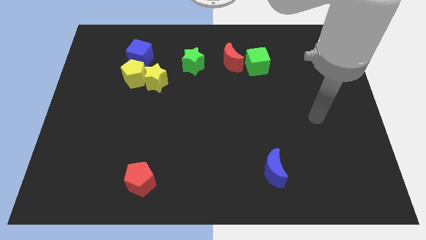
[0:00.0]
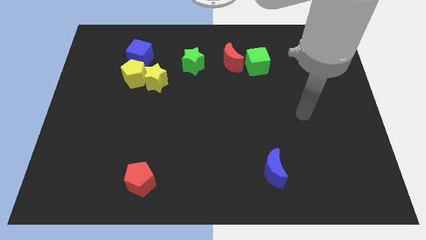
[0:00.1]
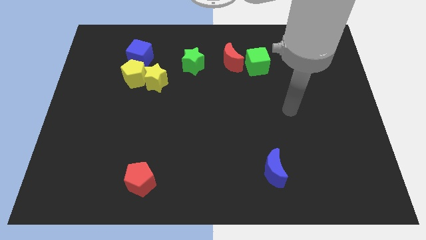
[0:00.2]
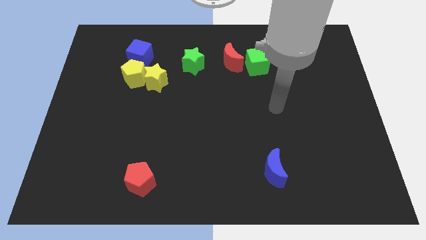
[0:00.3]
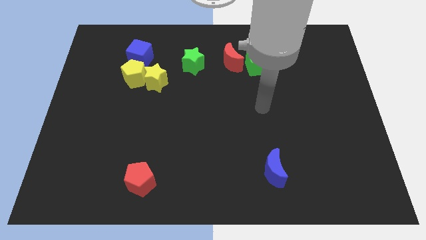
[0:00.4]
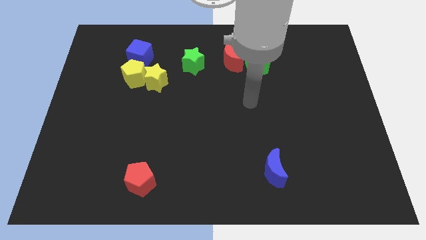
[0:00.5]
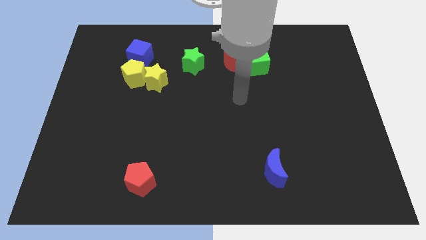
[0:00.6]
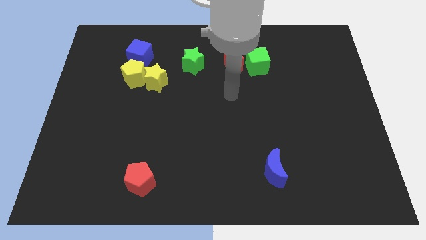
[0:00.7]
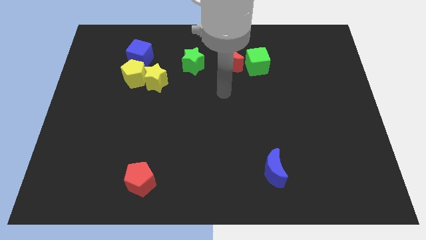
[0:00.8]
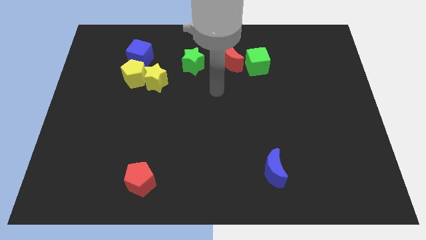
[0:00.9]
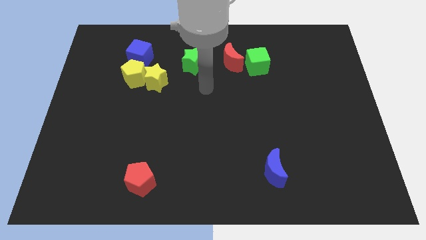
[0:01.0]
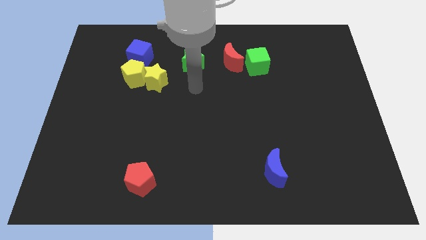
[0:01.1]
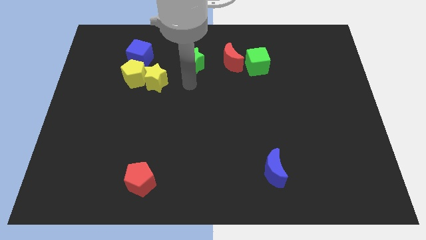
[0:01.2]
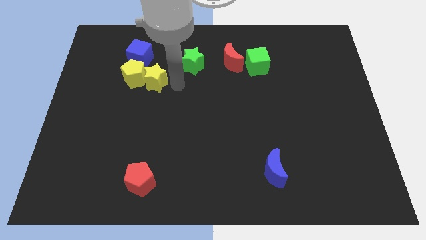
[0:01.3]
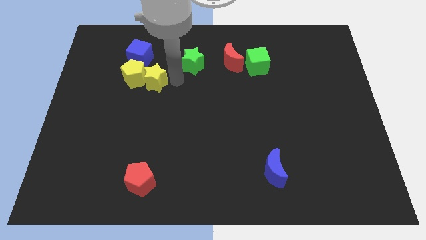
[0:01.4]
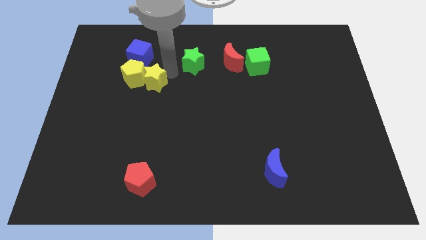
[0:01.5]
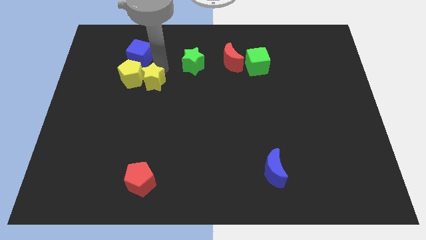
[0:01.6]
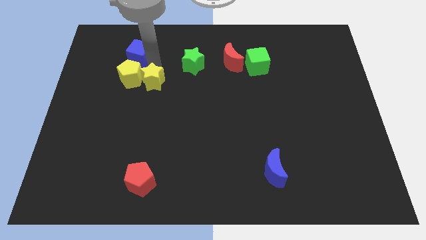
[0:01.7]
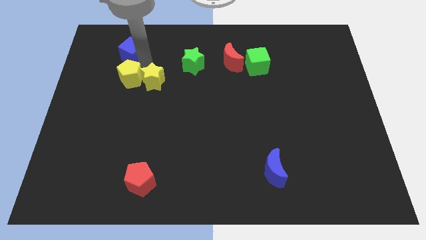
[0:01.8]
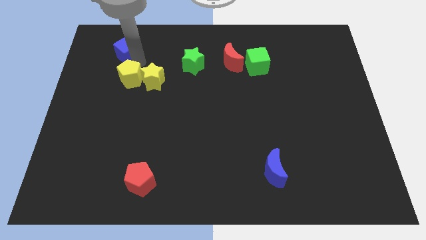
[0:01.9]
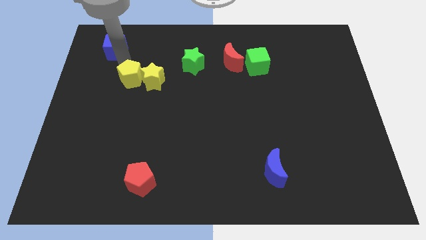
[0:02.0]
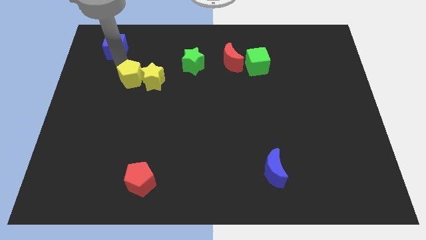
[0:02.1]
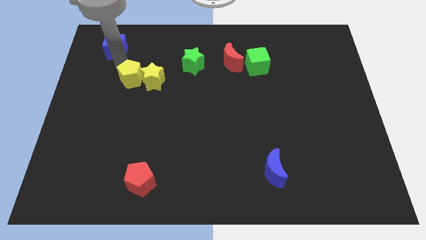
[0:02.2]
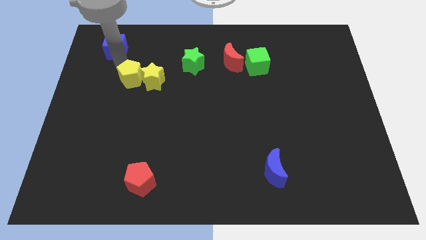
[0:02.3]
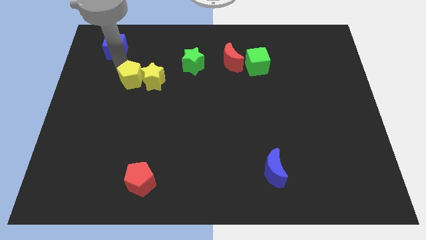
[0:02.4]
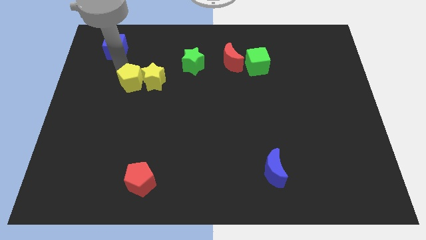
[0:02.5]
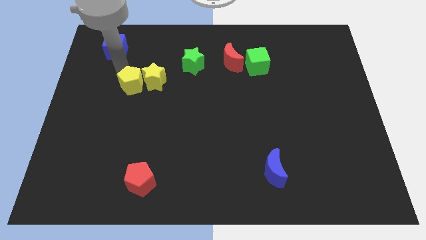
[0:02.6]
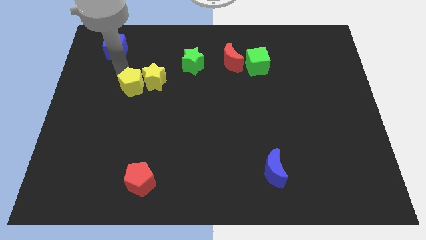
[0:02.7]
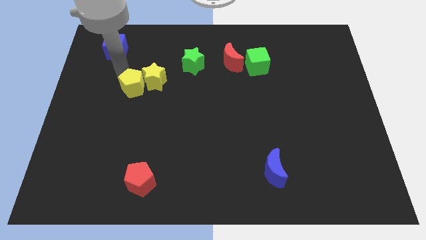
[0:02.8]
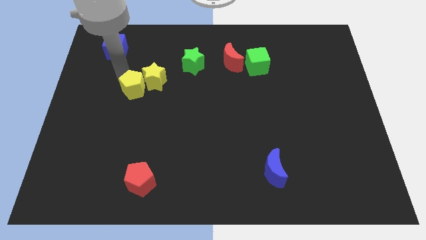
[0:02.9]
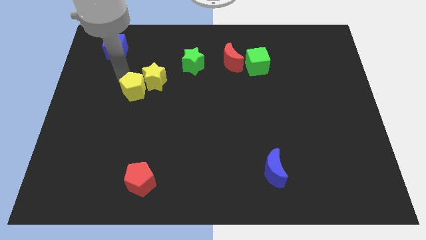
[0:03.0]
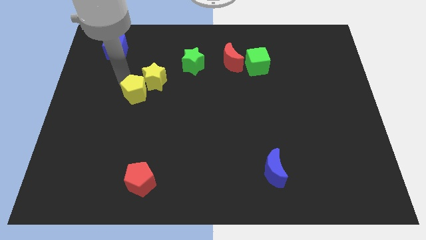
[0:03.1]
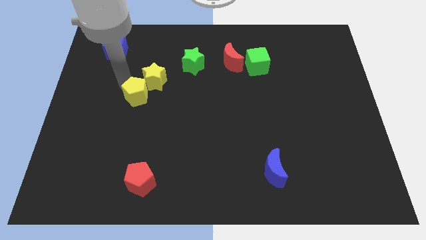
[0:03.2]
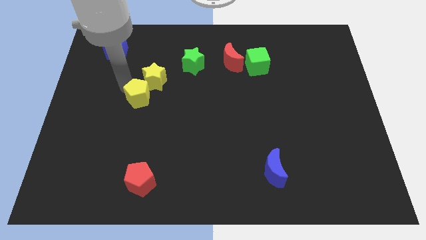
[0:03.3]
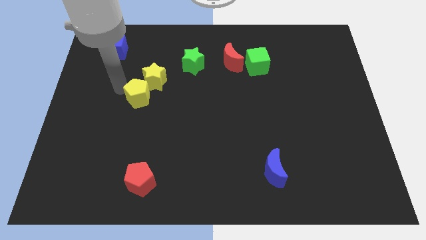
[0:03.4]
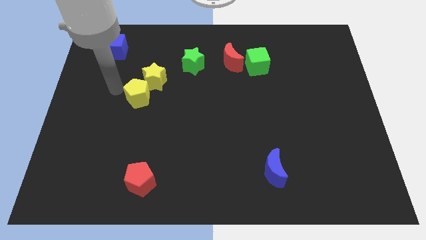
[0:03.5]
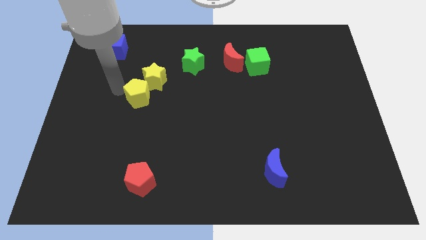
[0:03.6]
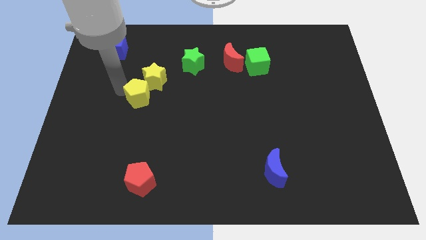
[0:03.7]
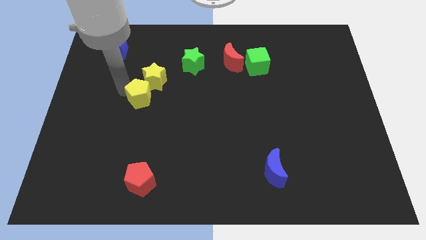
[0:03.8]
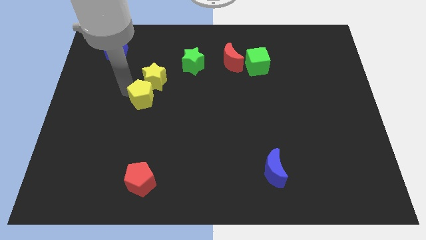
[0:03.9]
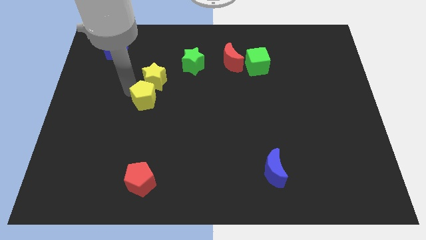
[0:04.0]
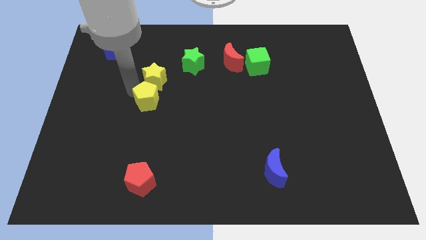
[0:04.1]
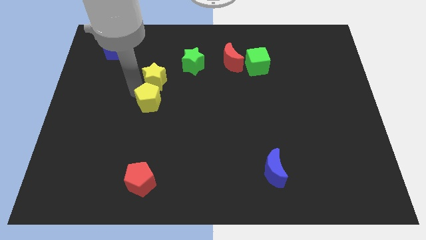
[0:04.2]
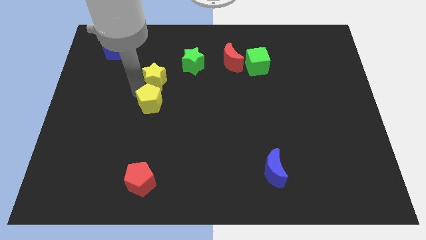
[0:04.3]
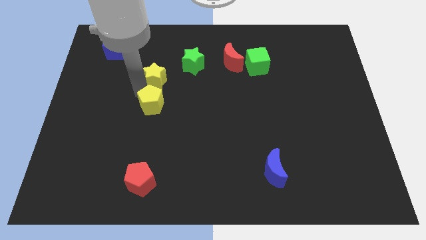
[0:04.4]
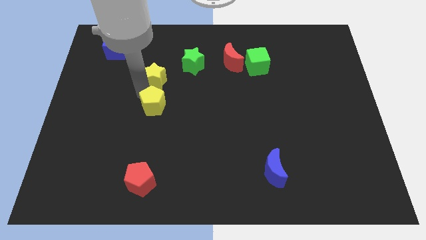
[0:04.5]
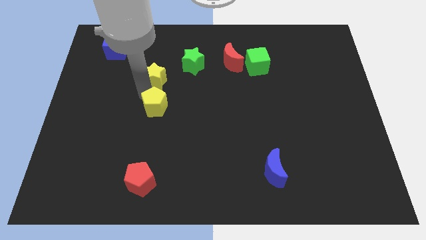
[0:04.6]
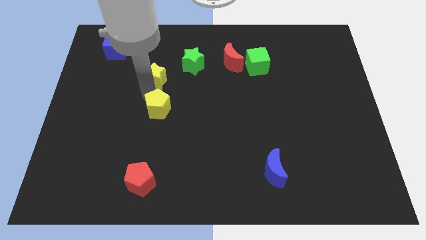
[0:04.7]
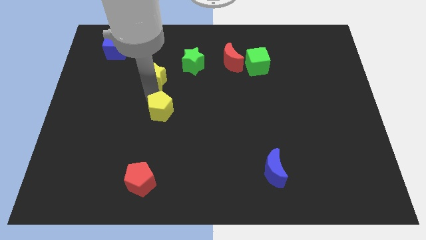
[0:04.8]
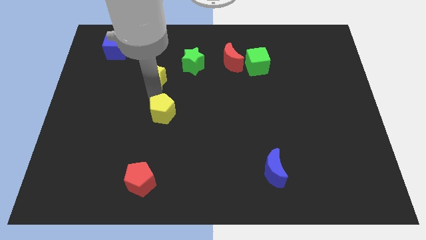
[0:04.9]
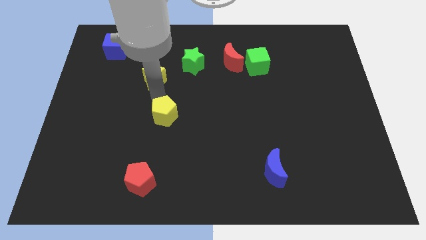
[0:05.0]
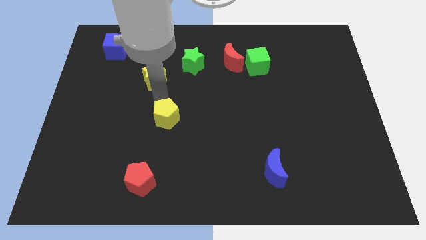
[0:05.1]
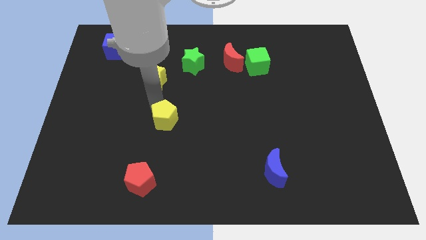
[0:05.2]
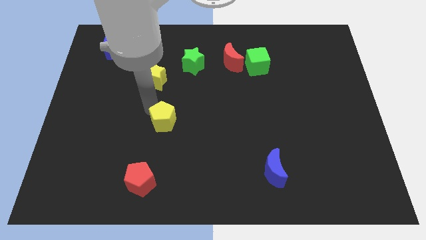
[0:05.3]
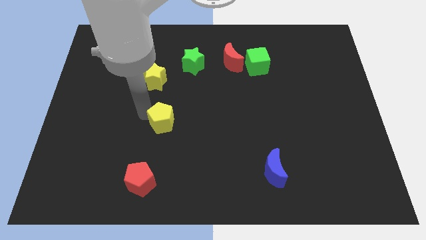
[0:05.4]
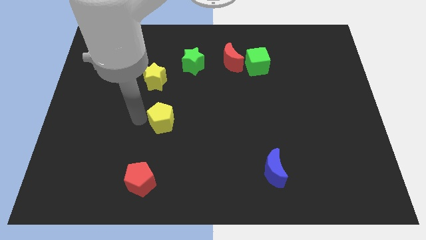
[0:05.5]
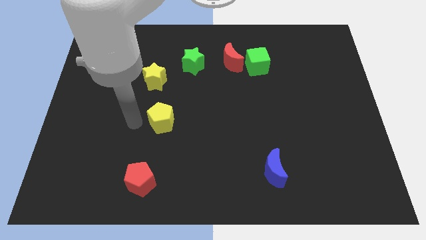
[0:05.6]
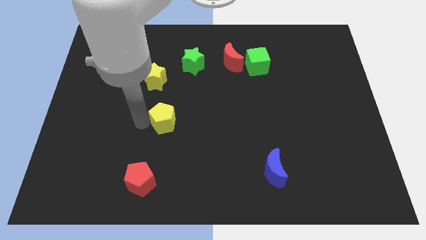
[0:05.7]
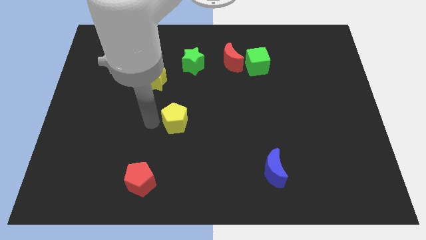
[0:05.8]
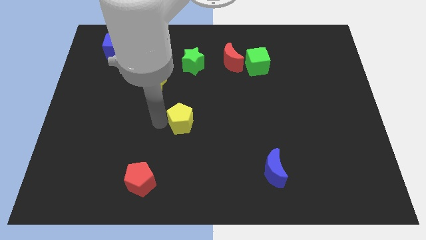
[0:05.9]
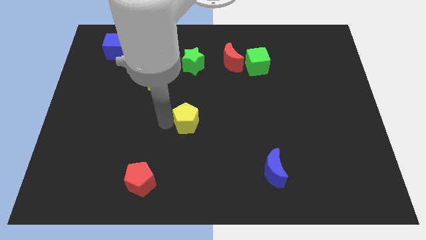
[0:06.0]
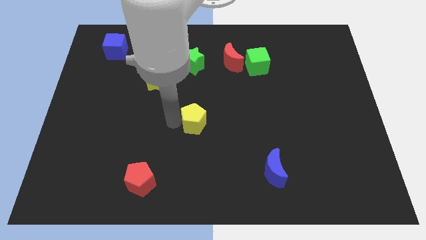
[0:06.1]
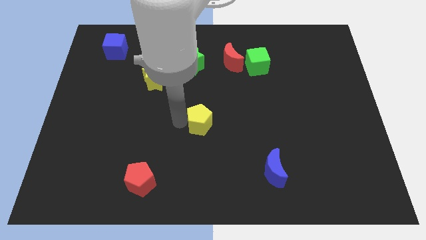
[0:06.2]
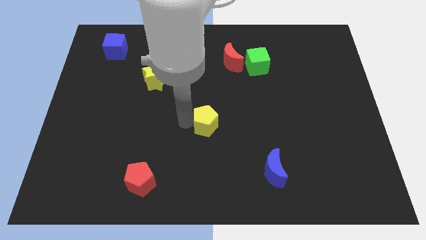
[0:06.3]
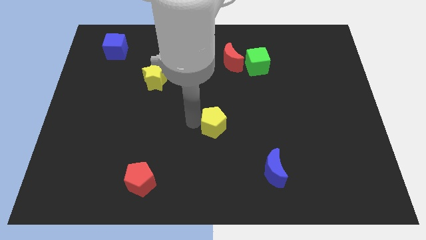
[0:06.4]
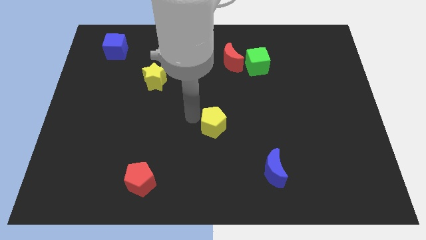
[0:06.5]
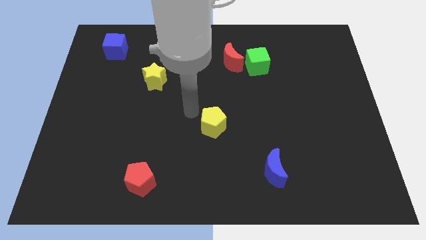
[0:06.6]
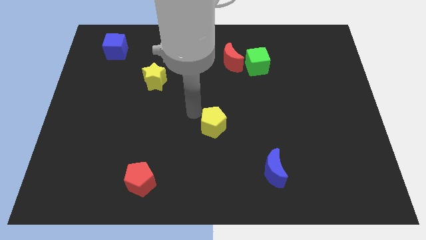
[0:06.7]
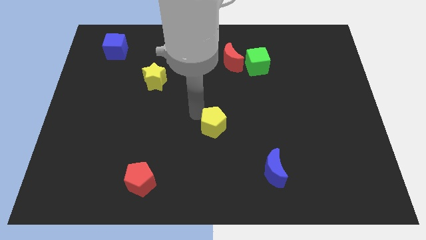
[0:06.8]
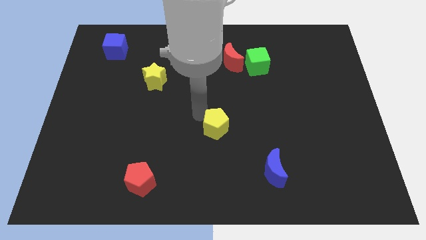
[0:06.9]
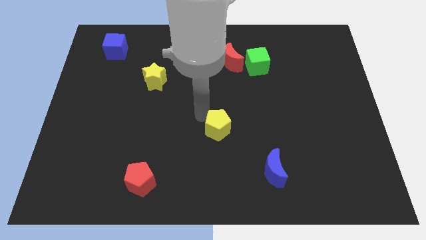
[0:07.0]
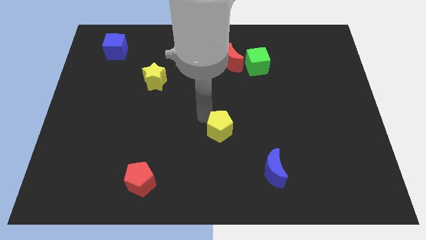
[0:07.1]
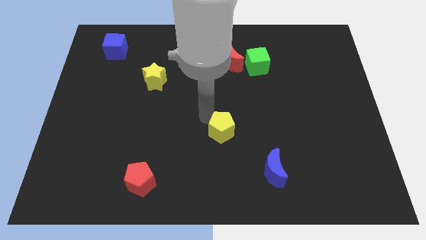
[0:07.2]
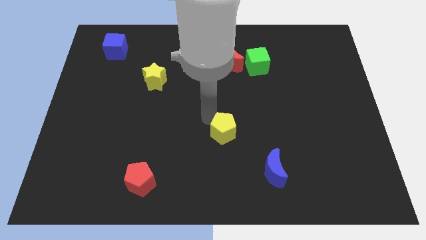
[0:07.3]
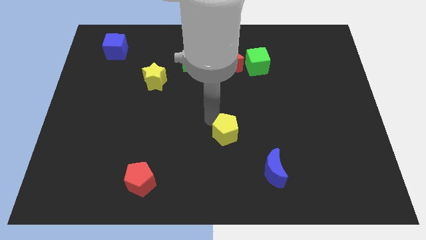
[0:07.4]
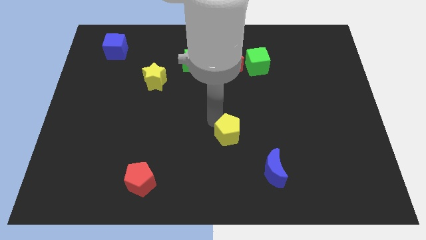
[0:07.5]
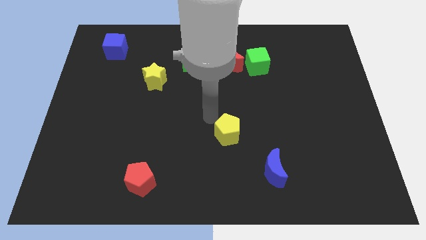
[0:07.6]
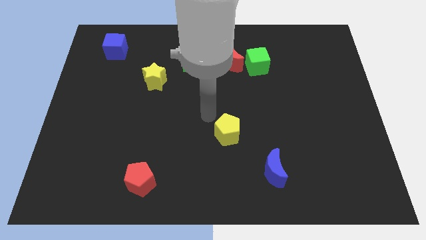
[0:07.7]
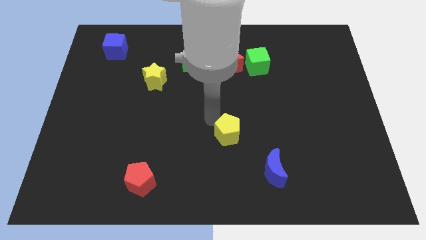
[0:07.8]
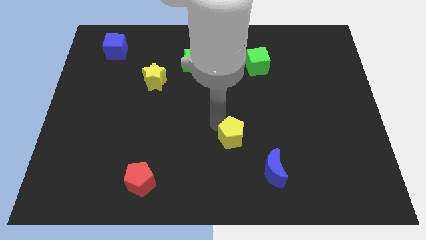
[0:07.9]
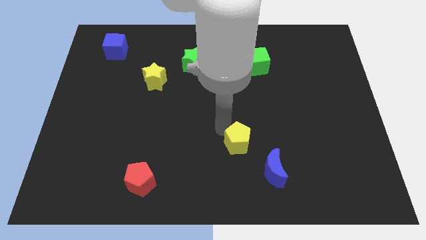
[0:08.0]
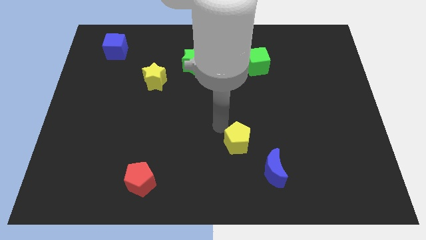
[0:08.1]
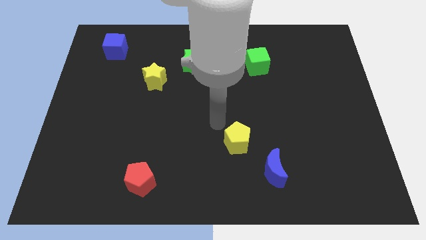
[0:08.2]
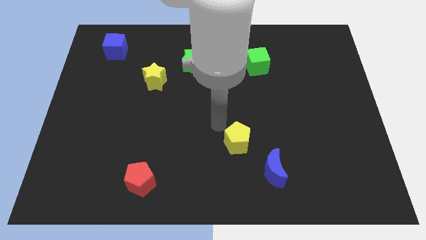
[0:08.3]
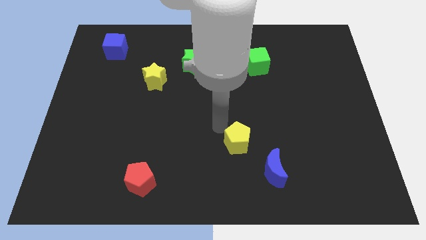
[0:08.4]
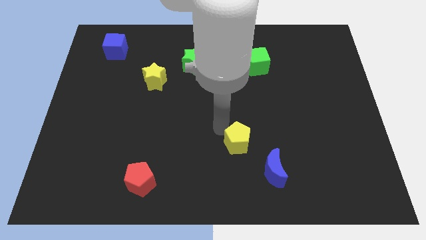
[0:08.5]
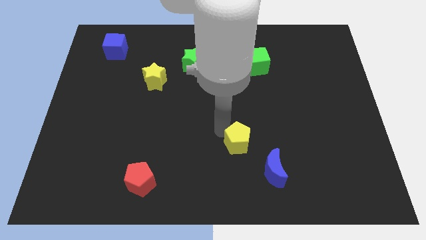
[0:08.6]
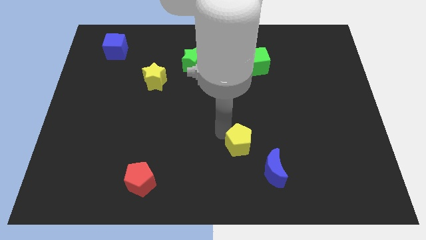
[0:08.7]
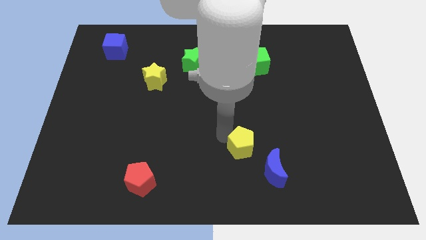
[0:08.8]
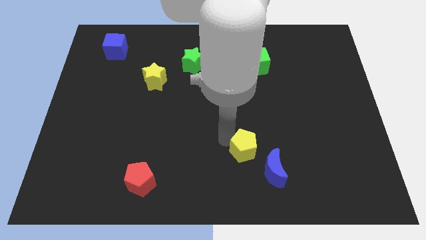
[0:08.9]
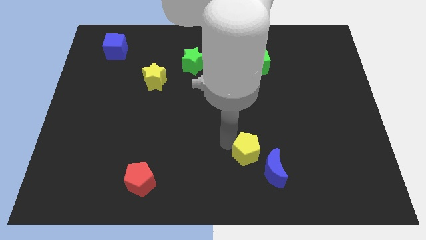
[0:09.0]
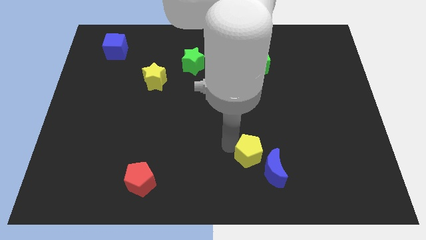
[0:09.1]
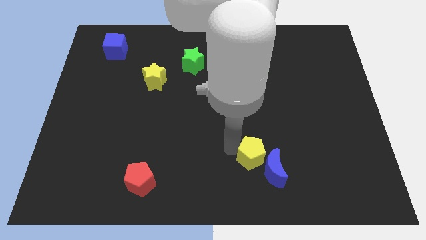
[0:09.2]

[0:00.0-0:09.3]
push the yellow pentagon towards the blue moon
